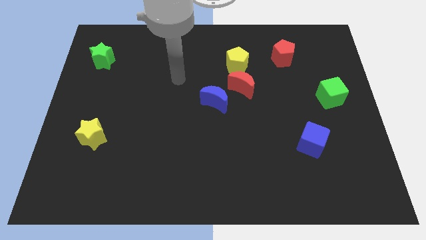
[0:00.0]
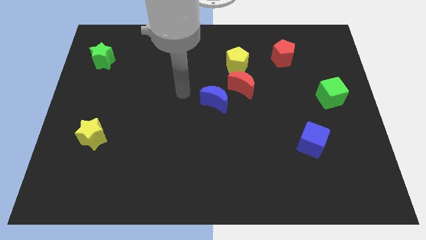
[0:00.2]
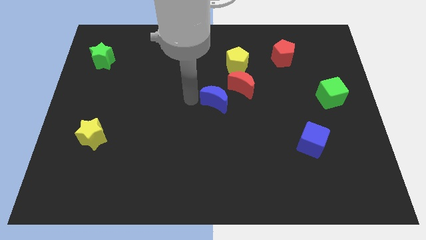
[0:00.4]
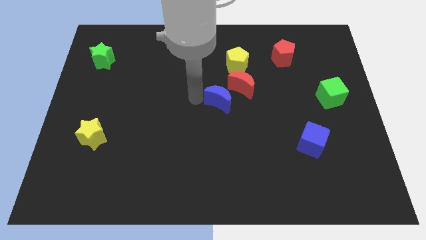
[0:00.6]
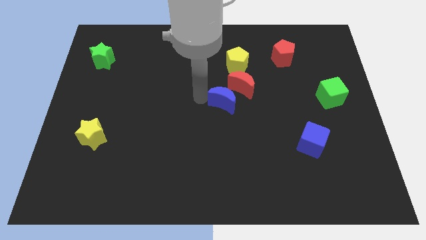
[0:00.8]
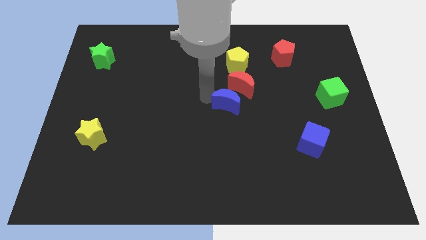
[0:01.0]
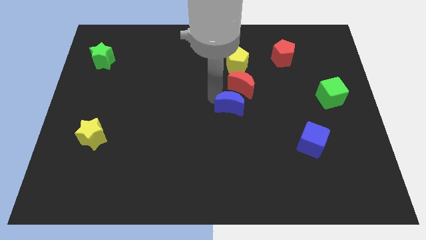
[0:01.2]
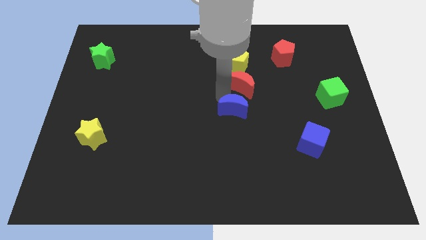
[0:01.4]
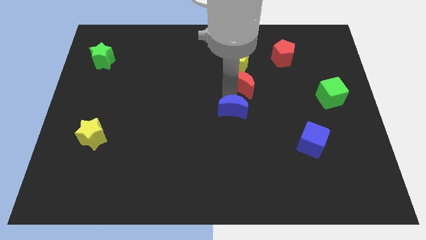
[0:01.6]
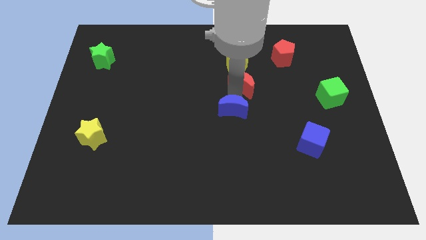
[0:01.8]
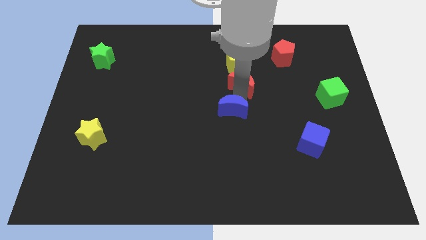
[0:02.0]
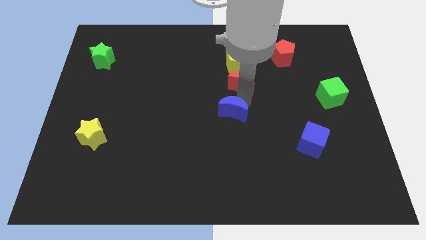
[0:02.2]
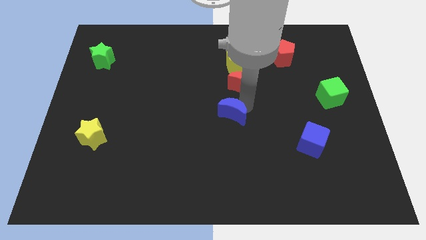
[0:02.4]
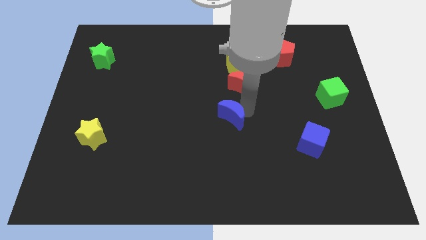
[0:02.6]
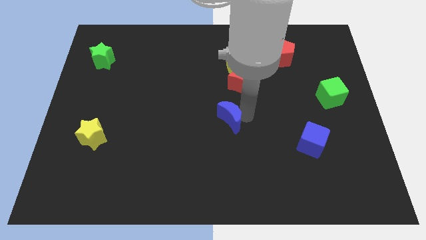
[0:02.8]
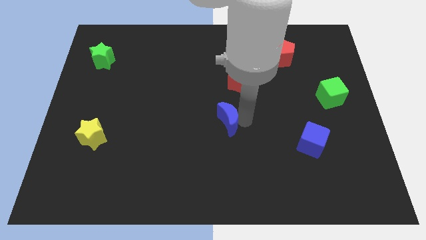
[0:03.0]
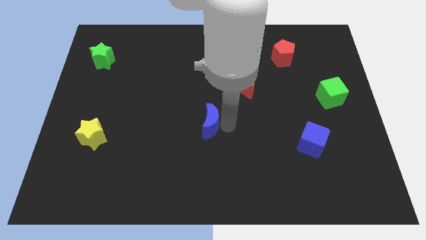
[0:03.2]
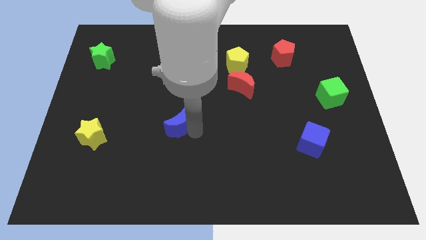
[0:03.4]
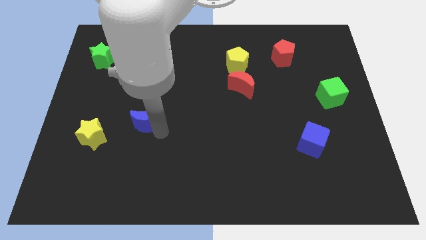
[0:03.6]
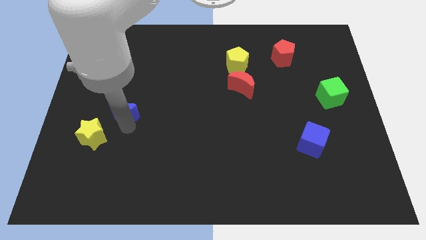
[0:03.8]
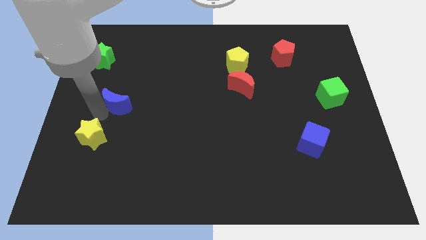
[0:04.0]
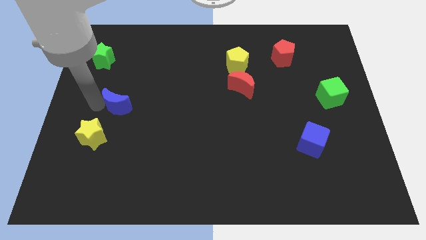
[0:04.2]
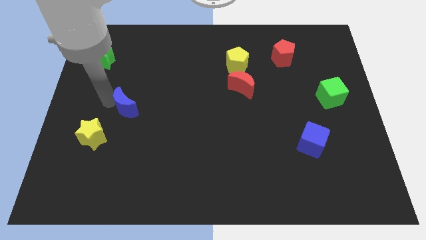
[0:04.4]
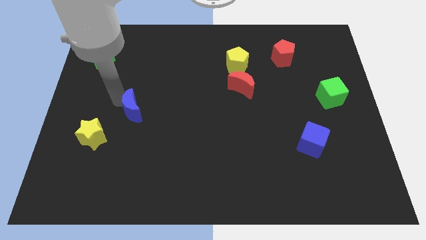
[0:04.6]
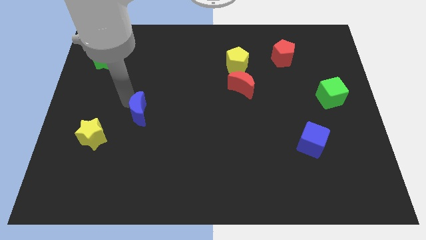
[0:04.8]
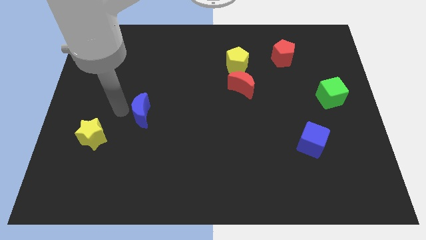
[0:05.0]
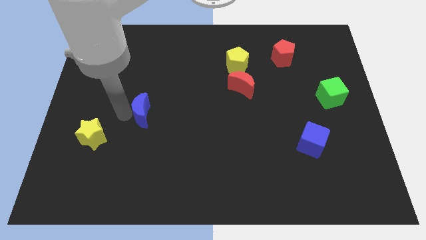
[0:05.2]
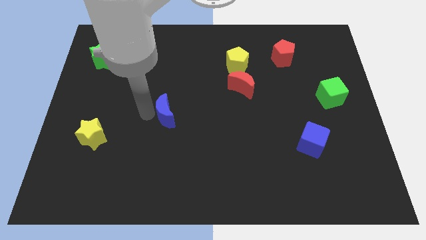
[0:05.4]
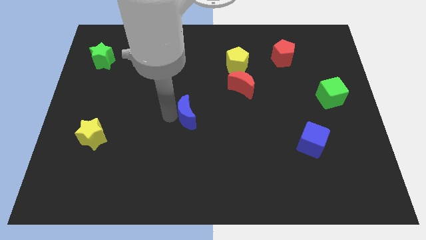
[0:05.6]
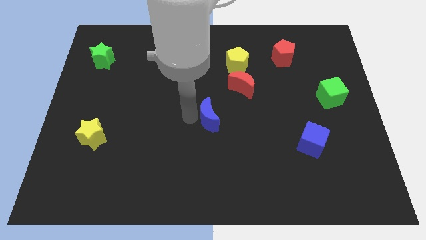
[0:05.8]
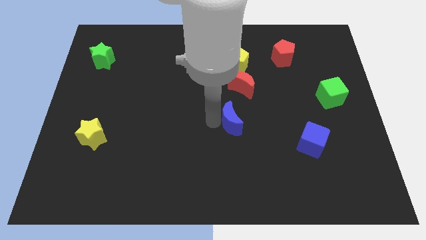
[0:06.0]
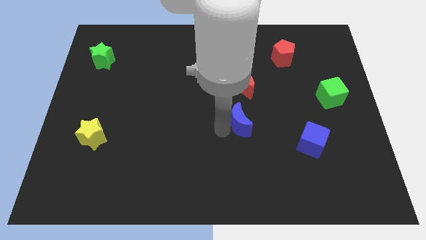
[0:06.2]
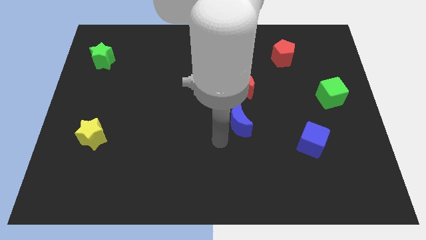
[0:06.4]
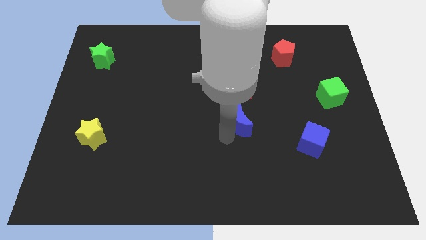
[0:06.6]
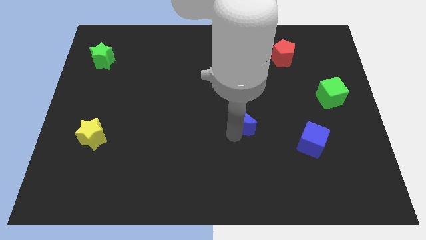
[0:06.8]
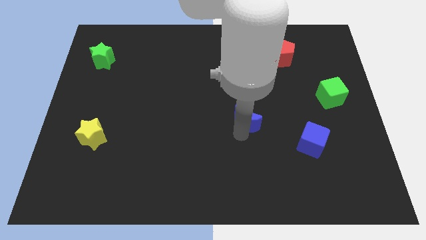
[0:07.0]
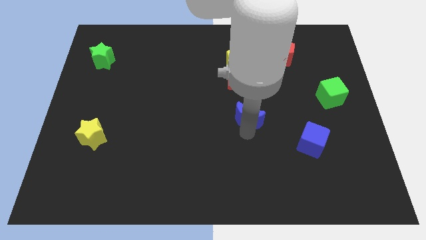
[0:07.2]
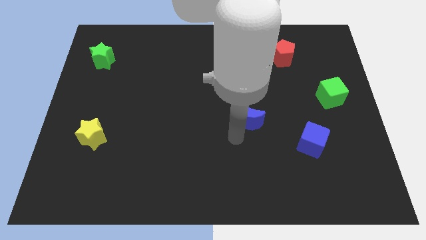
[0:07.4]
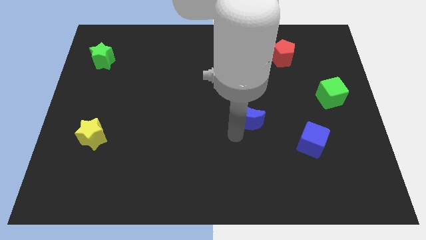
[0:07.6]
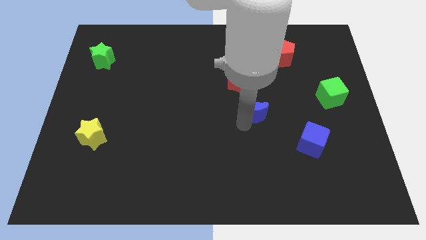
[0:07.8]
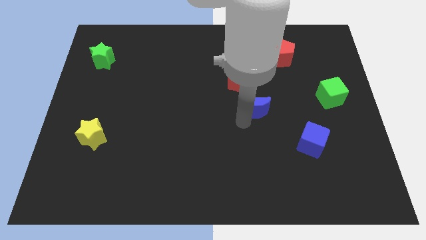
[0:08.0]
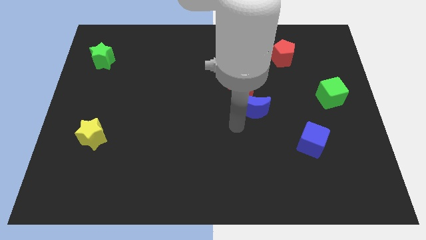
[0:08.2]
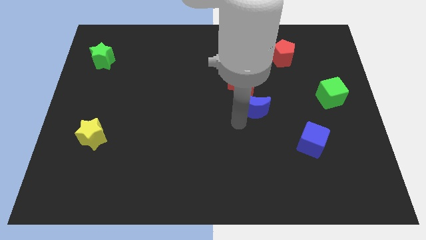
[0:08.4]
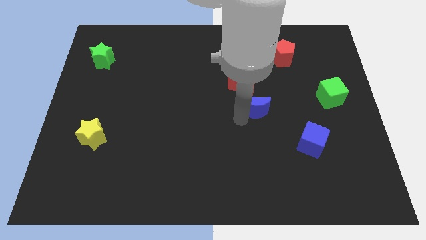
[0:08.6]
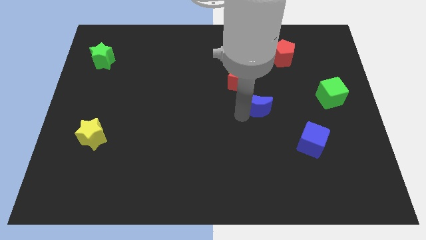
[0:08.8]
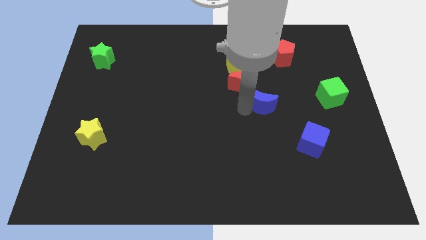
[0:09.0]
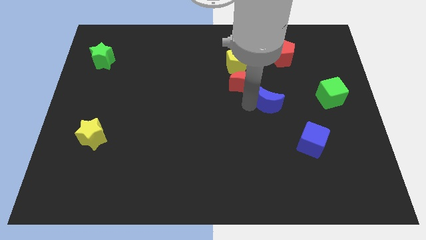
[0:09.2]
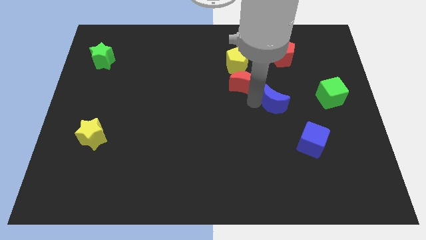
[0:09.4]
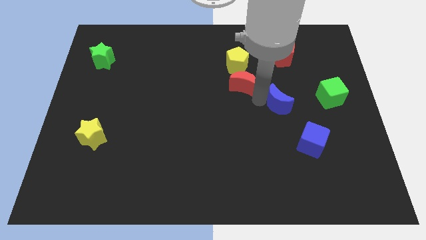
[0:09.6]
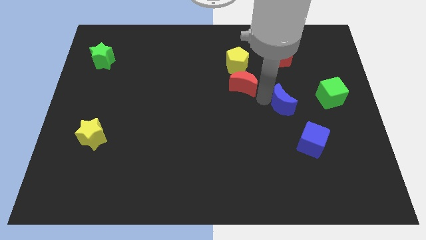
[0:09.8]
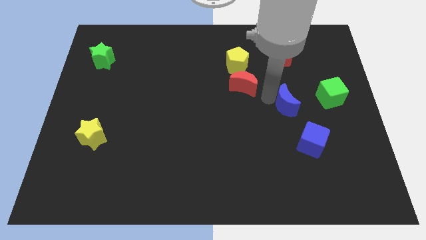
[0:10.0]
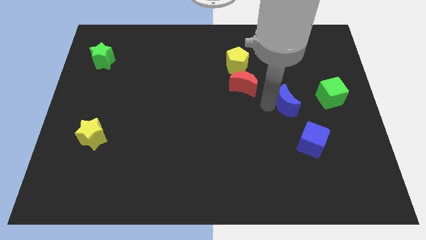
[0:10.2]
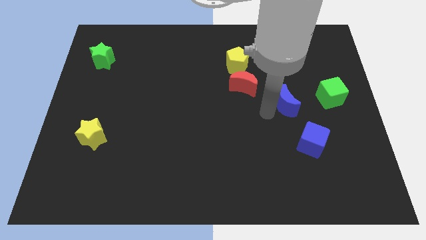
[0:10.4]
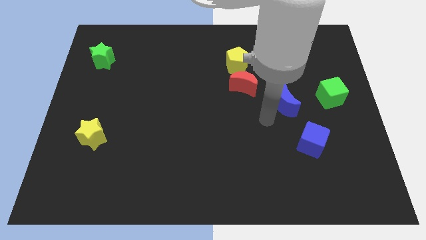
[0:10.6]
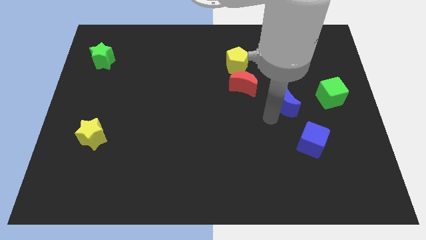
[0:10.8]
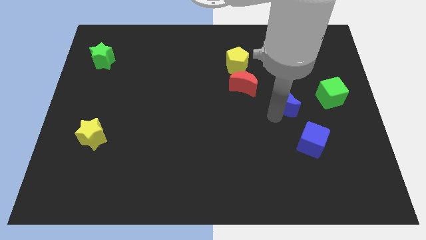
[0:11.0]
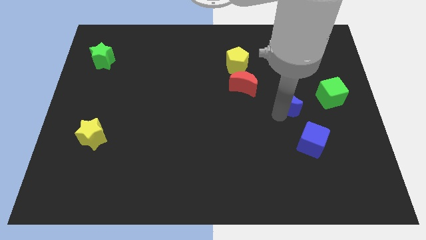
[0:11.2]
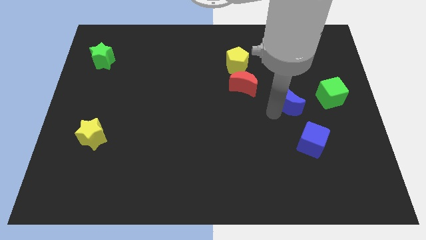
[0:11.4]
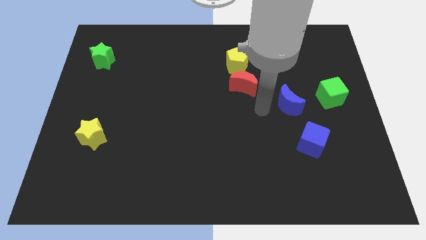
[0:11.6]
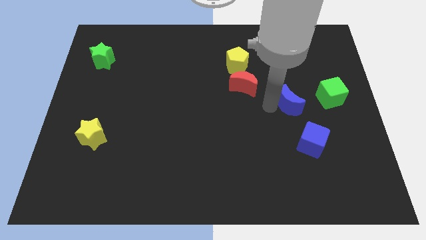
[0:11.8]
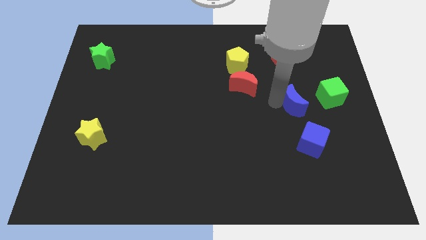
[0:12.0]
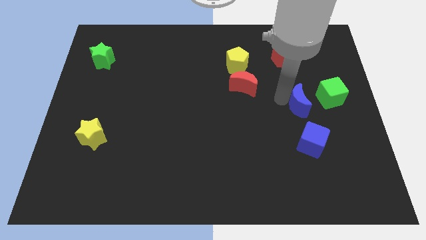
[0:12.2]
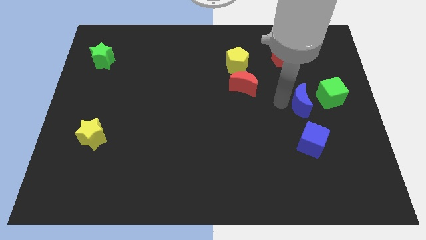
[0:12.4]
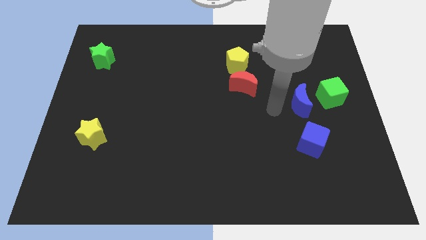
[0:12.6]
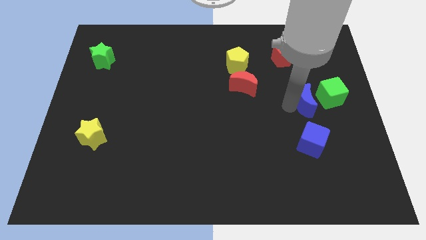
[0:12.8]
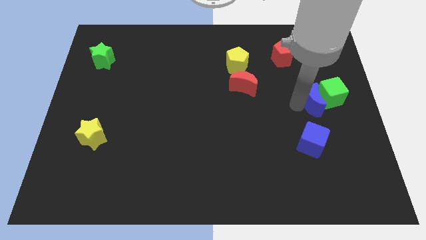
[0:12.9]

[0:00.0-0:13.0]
move the blue moon close to the green cube

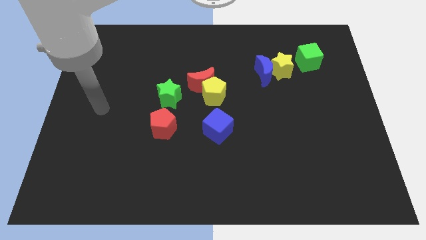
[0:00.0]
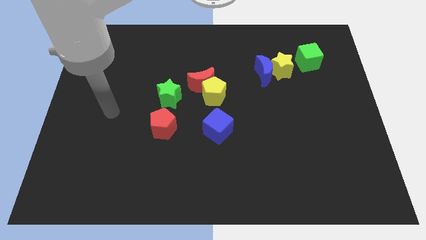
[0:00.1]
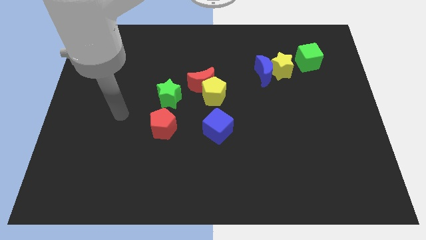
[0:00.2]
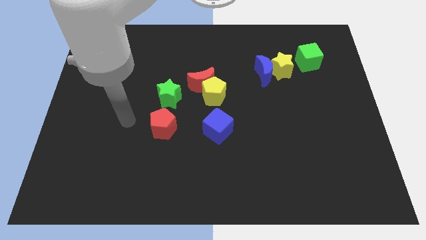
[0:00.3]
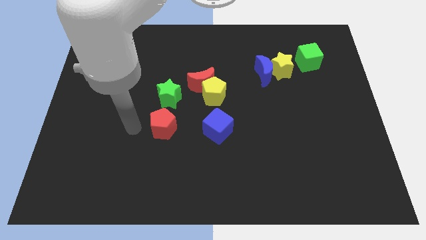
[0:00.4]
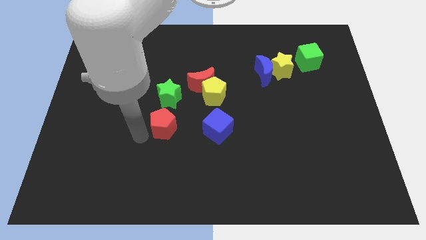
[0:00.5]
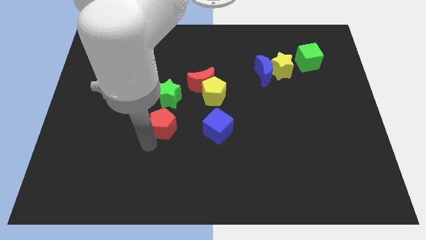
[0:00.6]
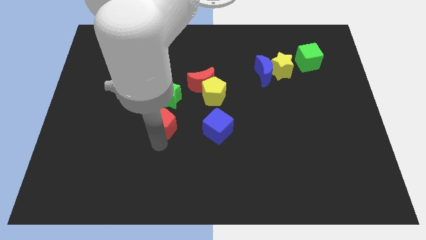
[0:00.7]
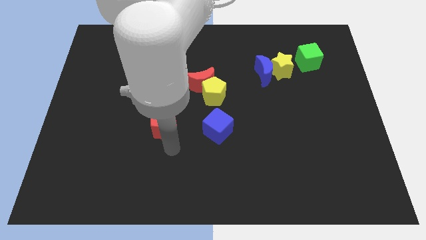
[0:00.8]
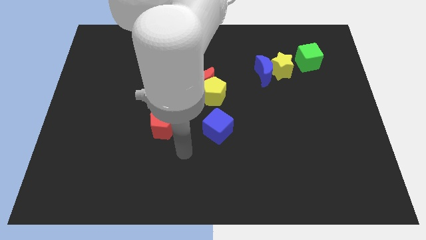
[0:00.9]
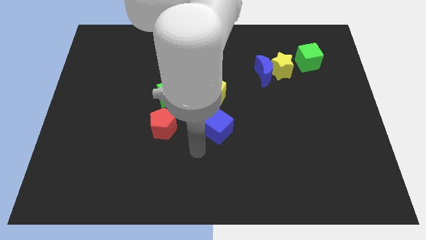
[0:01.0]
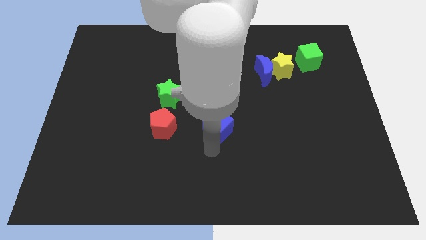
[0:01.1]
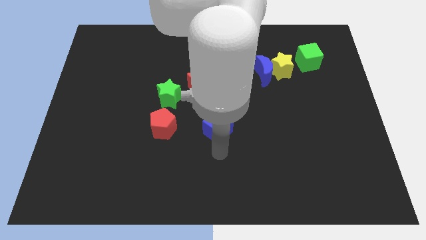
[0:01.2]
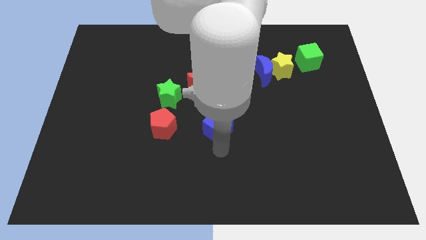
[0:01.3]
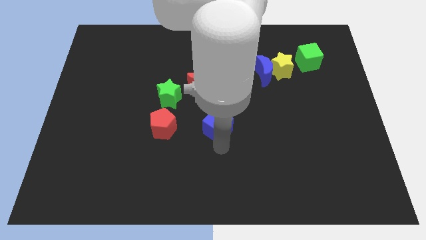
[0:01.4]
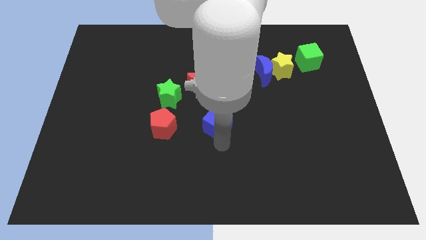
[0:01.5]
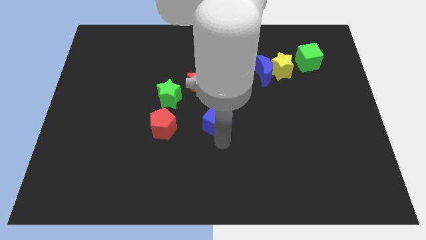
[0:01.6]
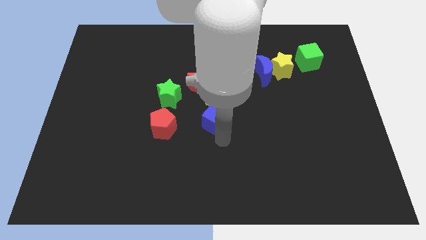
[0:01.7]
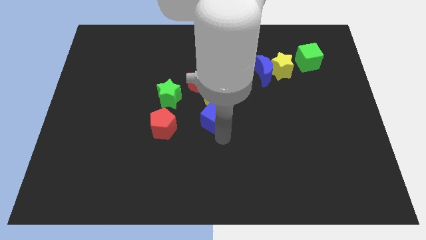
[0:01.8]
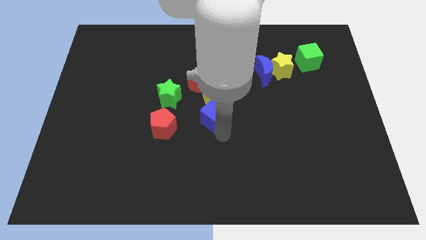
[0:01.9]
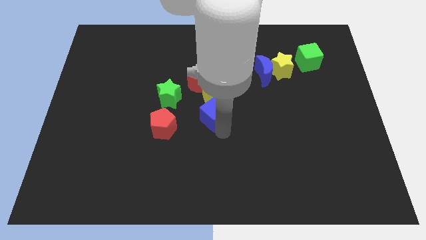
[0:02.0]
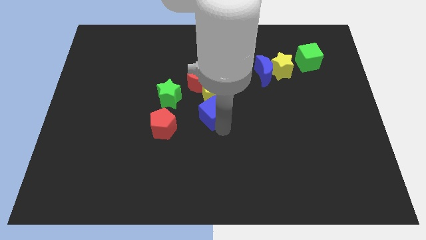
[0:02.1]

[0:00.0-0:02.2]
slide the blue cube towards the yellow pentagon
